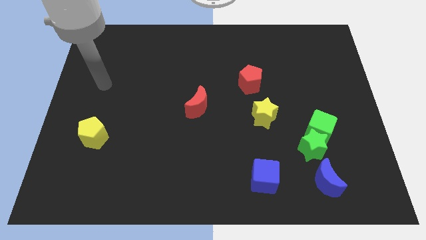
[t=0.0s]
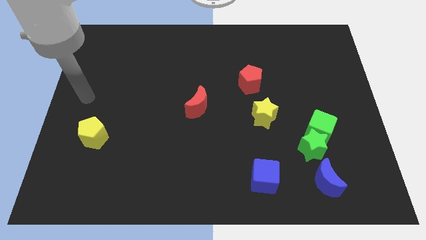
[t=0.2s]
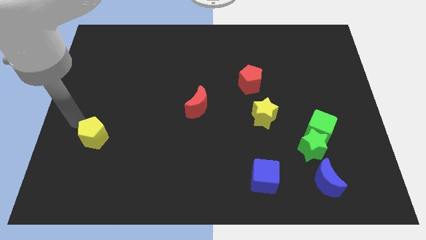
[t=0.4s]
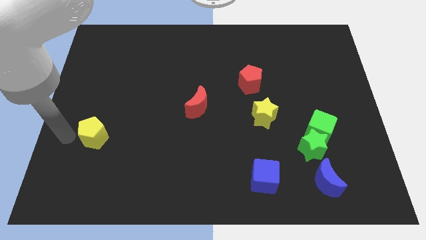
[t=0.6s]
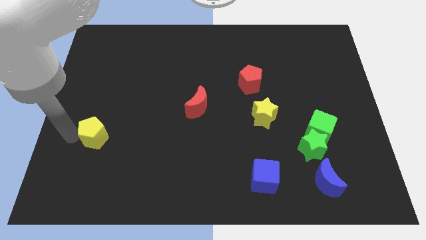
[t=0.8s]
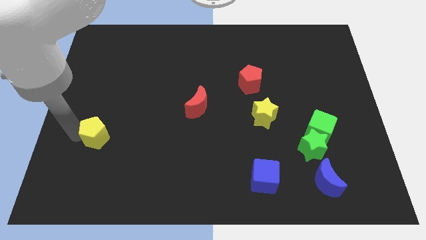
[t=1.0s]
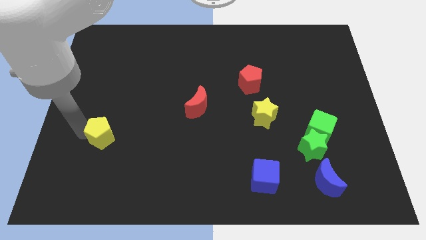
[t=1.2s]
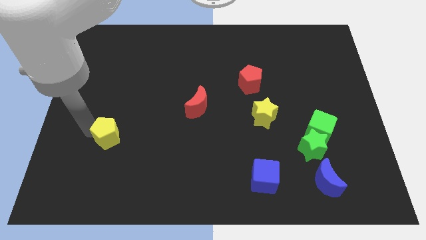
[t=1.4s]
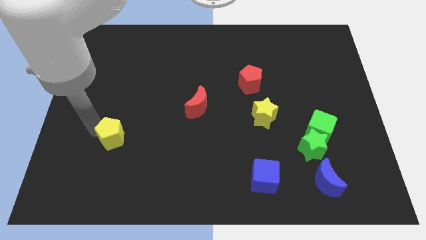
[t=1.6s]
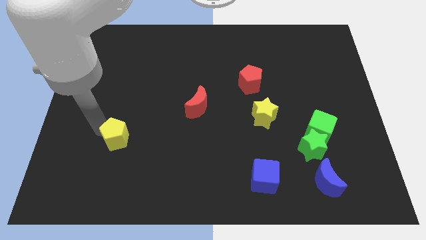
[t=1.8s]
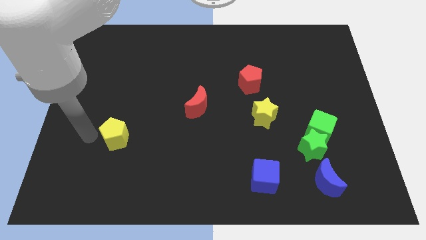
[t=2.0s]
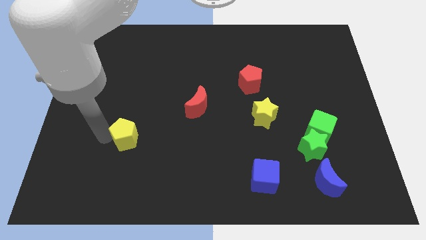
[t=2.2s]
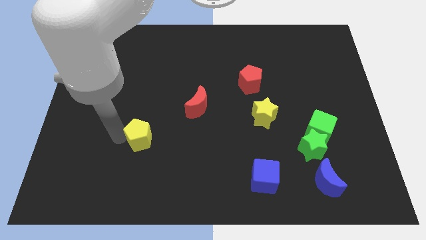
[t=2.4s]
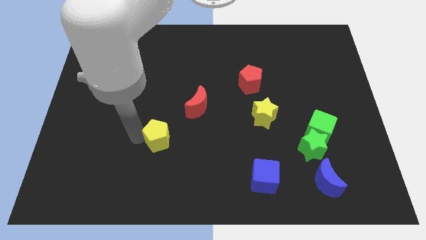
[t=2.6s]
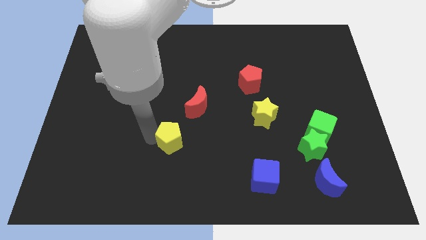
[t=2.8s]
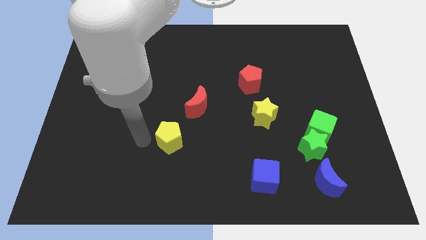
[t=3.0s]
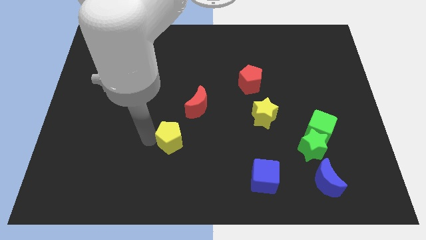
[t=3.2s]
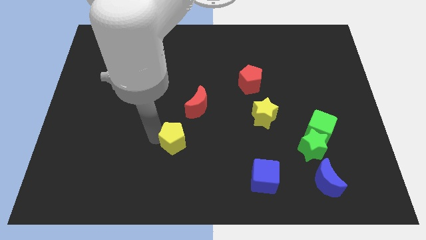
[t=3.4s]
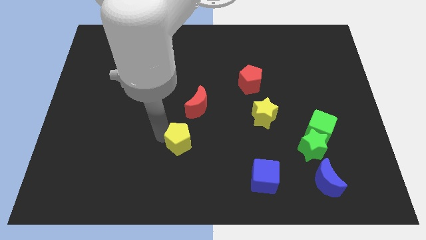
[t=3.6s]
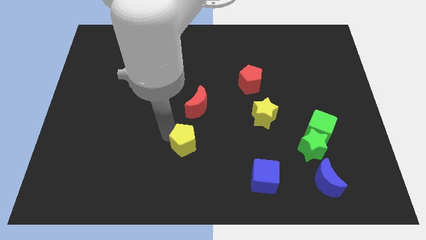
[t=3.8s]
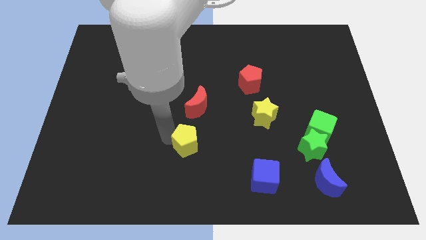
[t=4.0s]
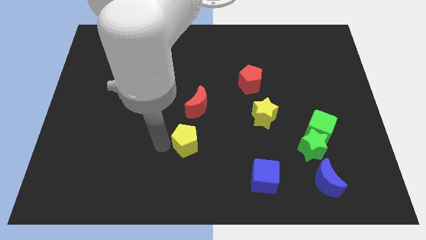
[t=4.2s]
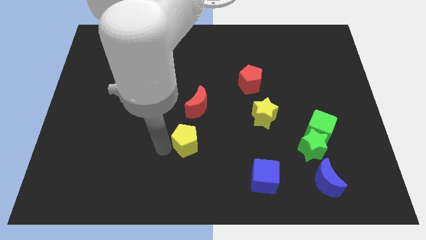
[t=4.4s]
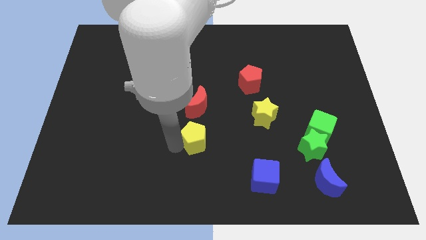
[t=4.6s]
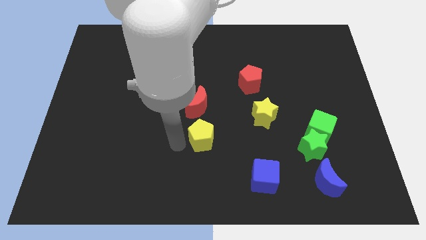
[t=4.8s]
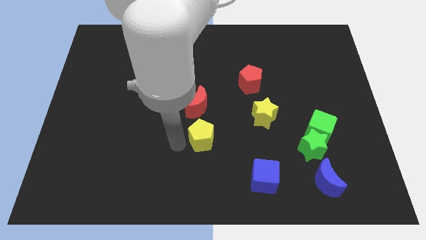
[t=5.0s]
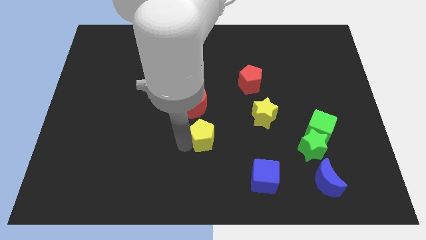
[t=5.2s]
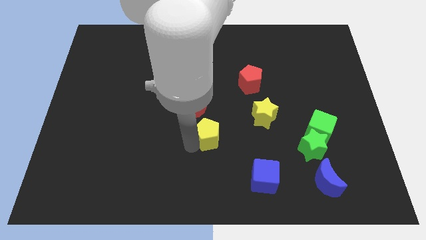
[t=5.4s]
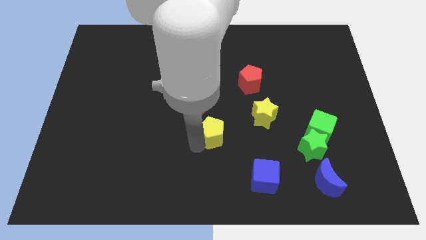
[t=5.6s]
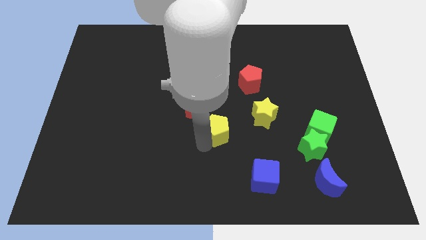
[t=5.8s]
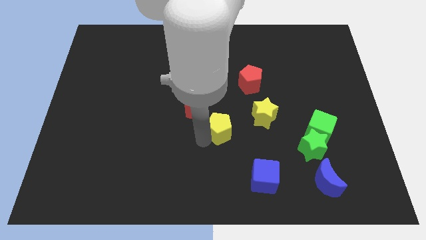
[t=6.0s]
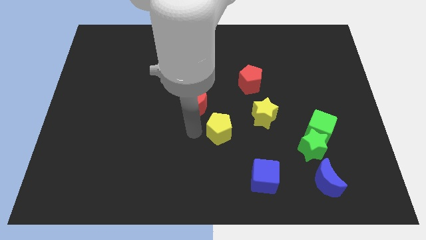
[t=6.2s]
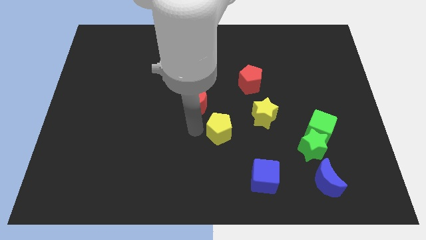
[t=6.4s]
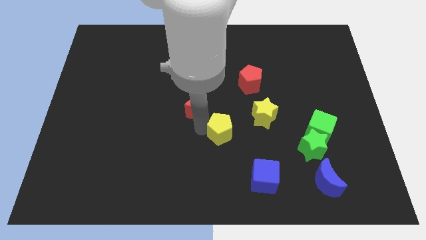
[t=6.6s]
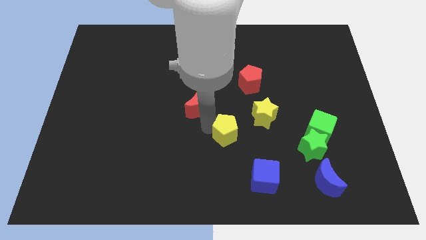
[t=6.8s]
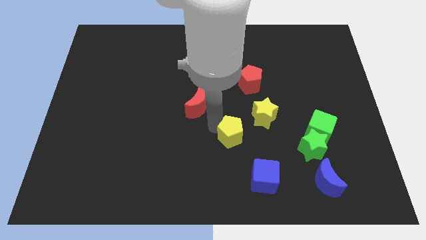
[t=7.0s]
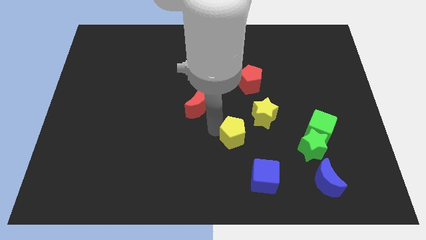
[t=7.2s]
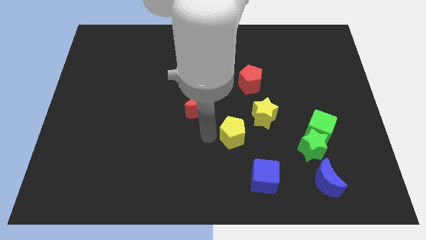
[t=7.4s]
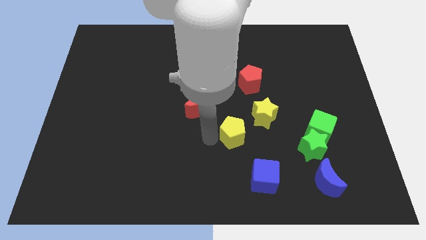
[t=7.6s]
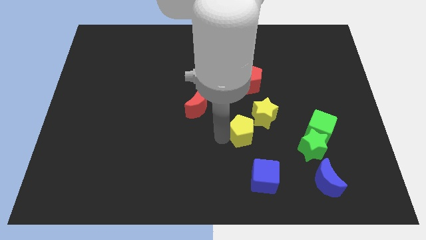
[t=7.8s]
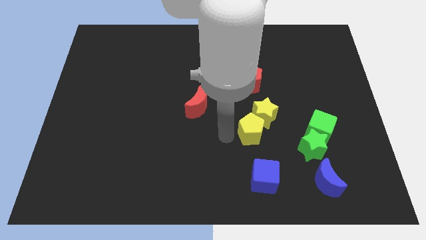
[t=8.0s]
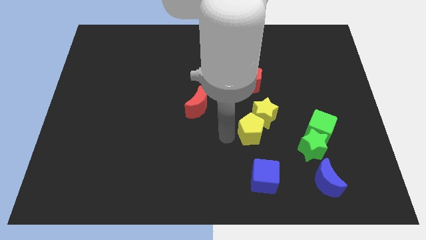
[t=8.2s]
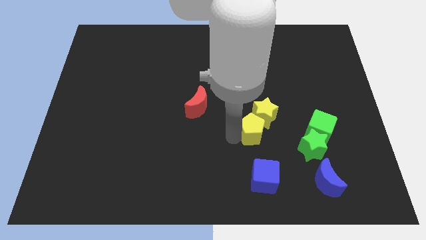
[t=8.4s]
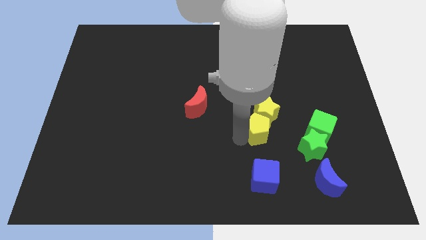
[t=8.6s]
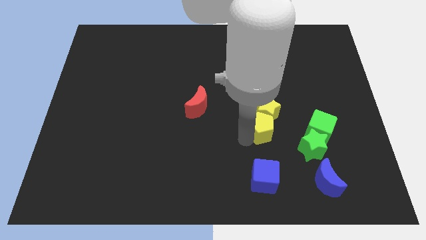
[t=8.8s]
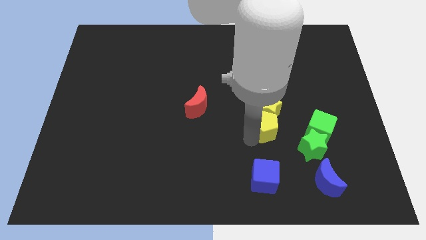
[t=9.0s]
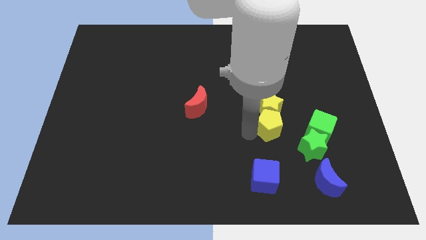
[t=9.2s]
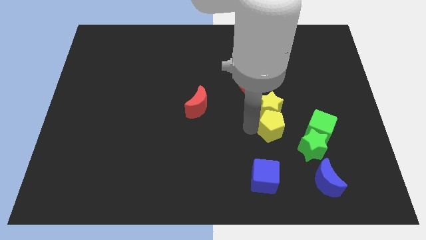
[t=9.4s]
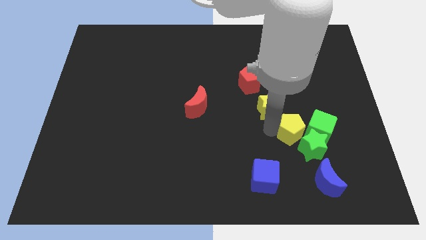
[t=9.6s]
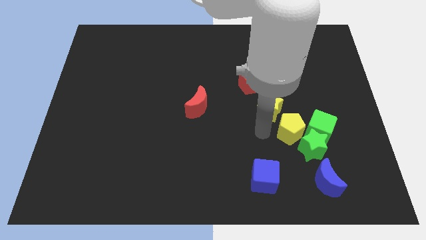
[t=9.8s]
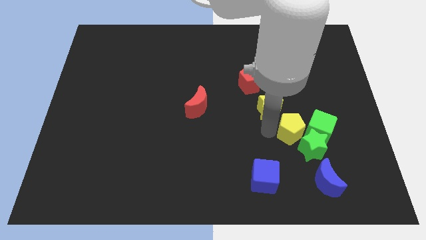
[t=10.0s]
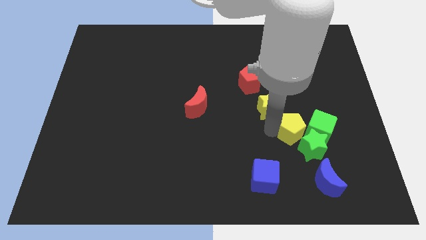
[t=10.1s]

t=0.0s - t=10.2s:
move the yellow pentagon close to the green cube

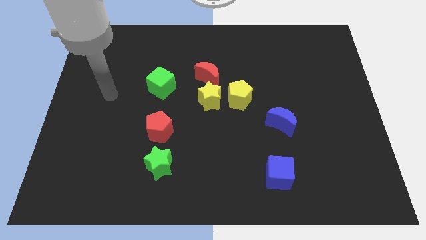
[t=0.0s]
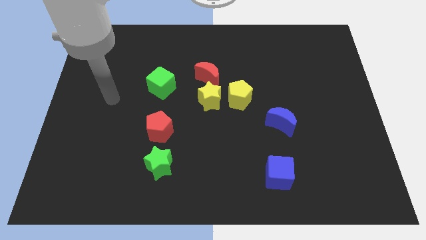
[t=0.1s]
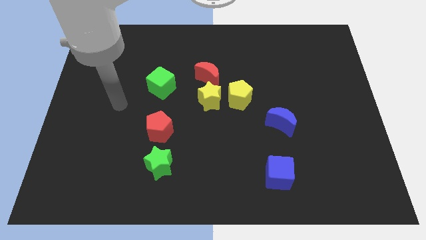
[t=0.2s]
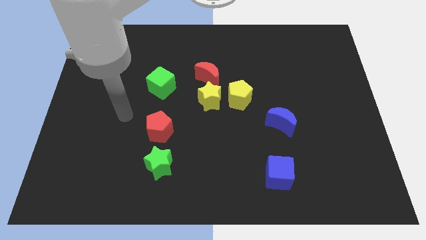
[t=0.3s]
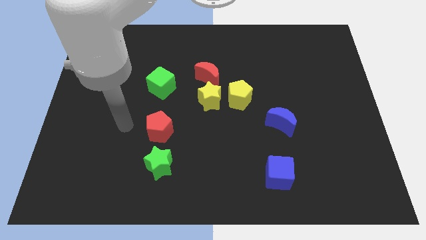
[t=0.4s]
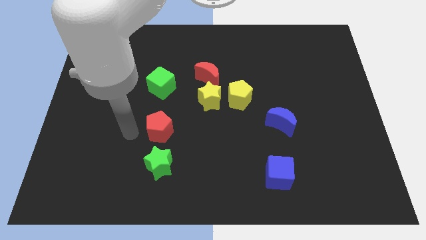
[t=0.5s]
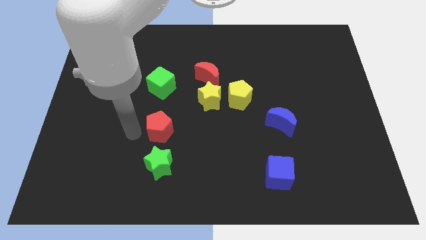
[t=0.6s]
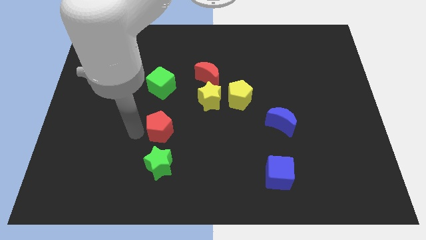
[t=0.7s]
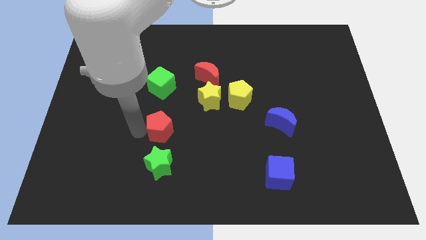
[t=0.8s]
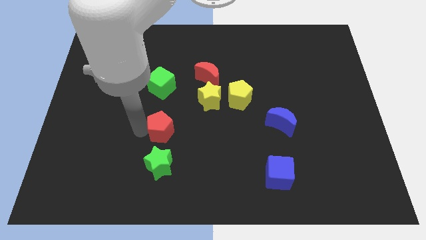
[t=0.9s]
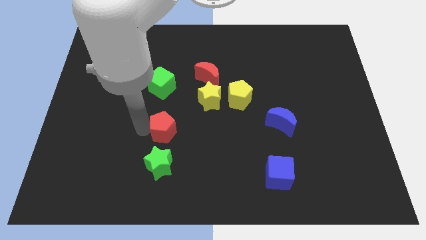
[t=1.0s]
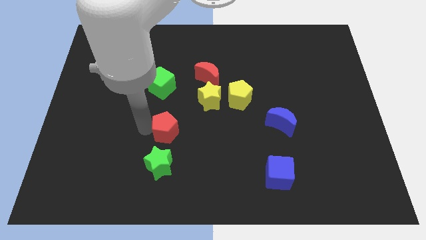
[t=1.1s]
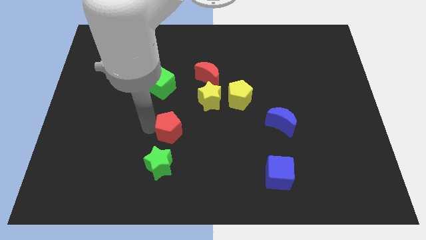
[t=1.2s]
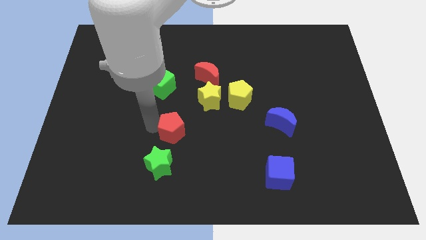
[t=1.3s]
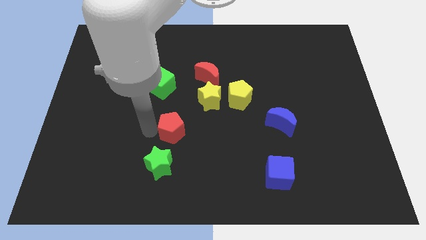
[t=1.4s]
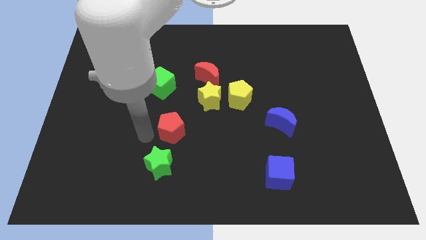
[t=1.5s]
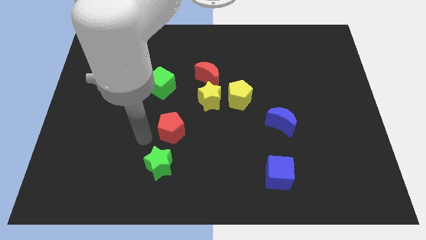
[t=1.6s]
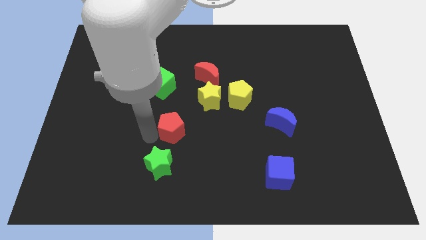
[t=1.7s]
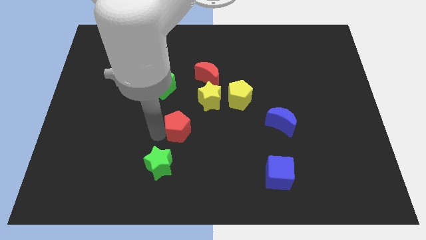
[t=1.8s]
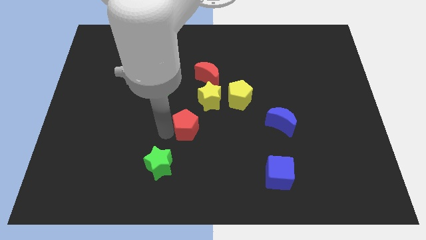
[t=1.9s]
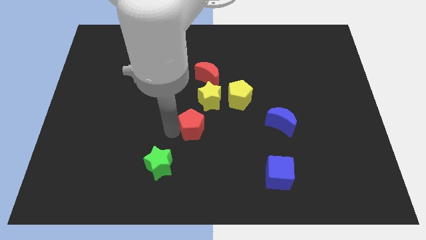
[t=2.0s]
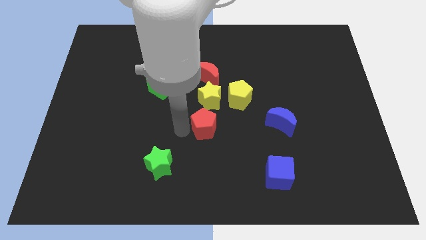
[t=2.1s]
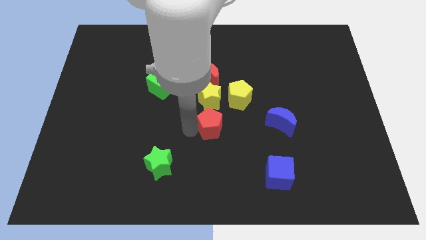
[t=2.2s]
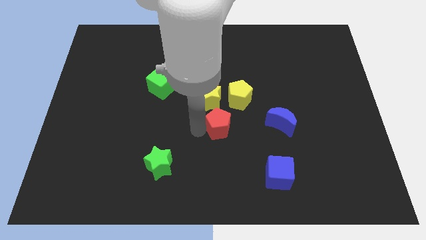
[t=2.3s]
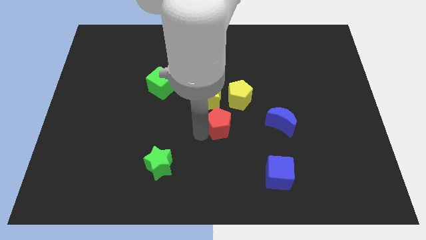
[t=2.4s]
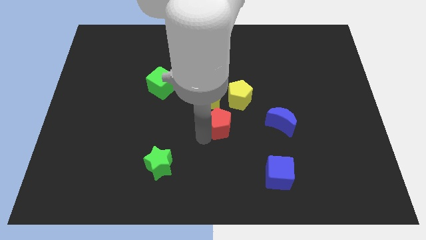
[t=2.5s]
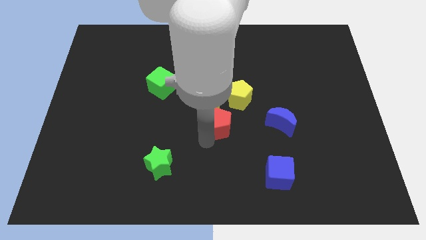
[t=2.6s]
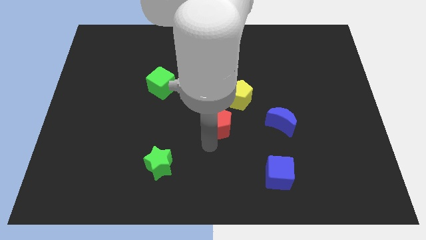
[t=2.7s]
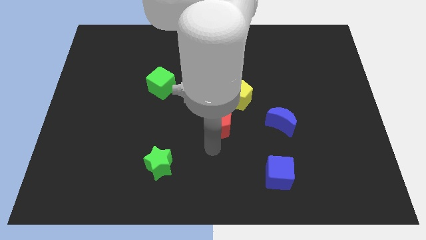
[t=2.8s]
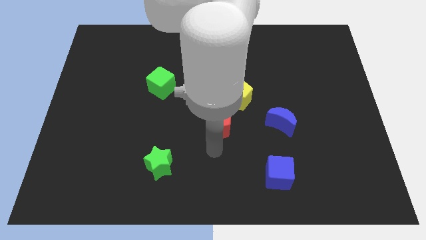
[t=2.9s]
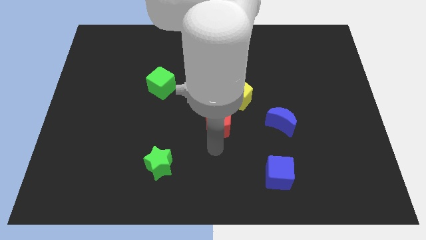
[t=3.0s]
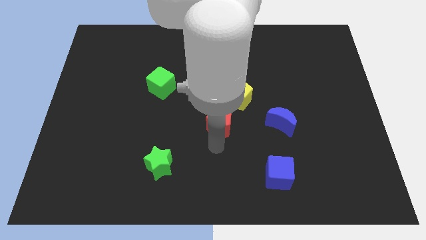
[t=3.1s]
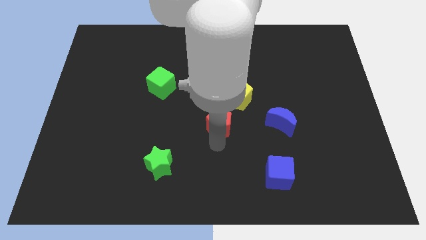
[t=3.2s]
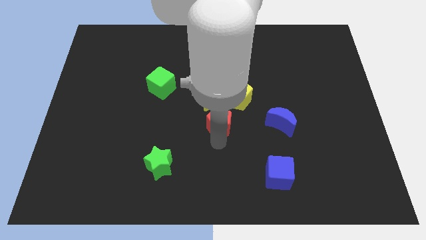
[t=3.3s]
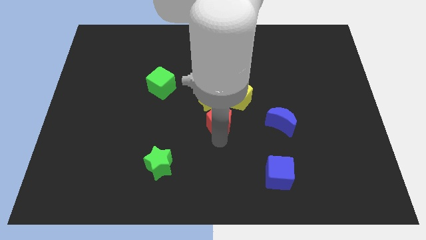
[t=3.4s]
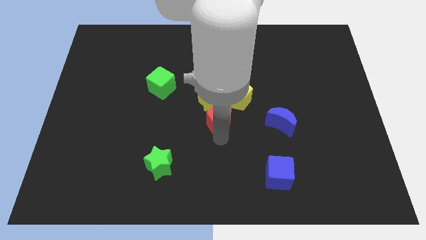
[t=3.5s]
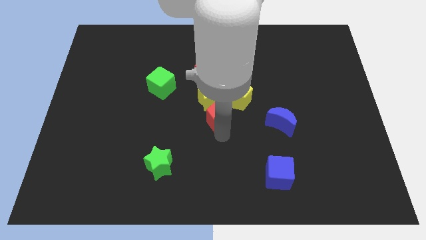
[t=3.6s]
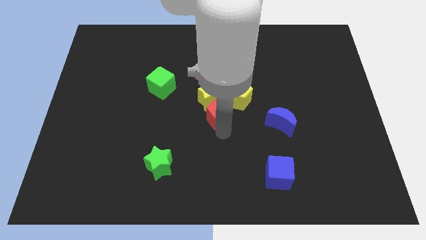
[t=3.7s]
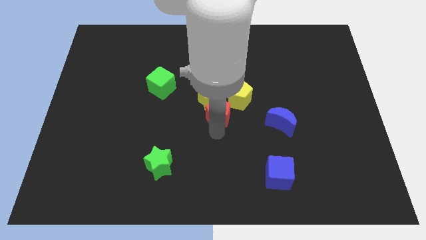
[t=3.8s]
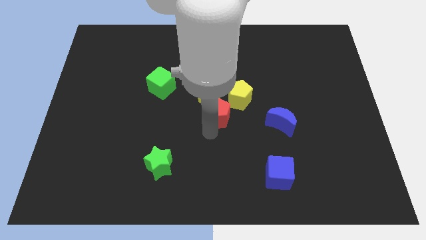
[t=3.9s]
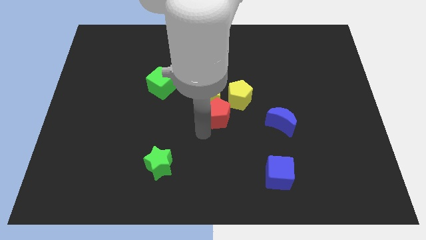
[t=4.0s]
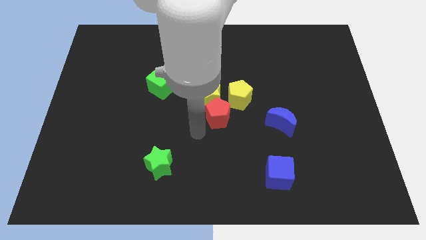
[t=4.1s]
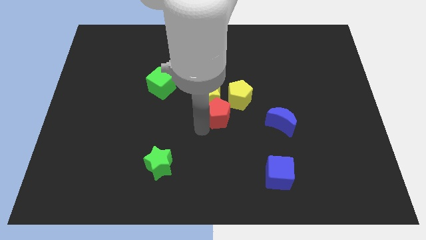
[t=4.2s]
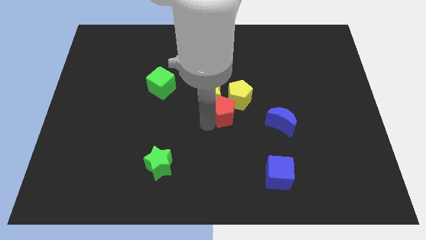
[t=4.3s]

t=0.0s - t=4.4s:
slide the red pentagon towards the yellow pentagon
